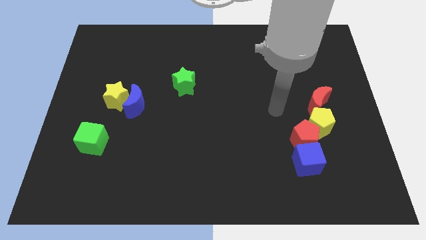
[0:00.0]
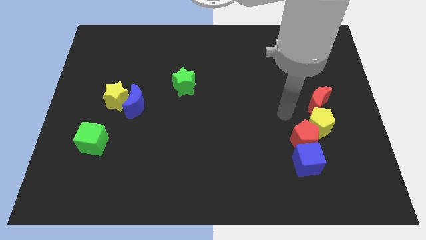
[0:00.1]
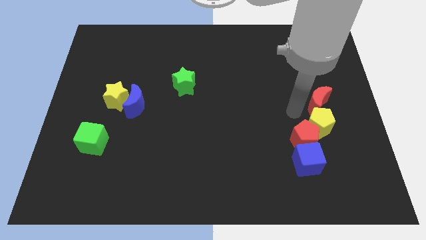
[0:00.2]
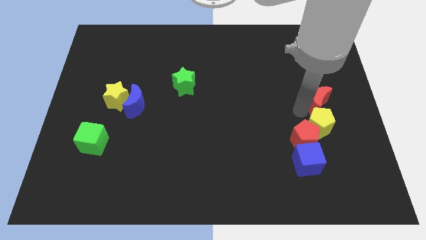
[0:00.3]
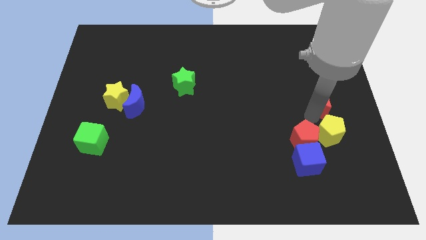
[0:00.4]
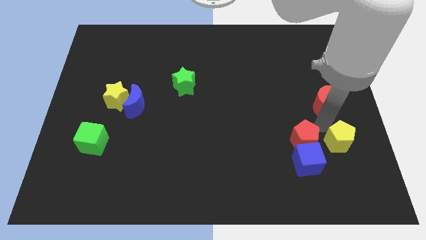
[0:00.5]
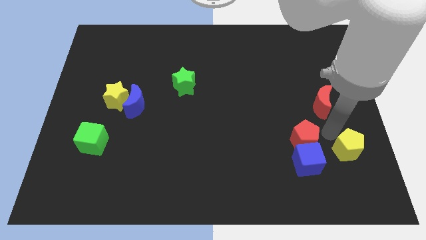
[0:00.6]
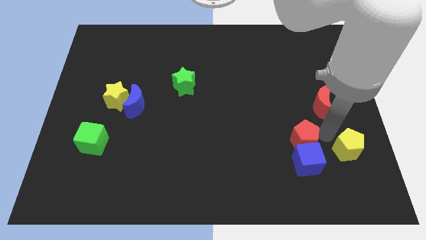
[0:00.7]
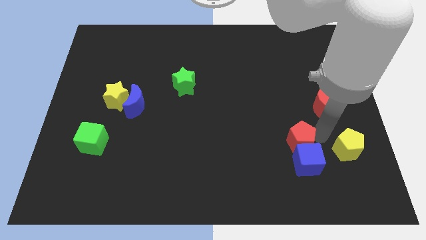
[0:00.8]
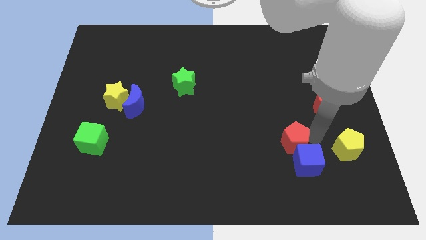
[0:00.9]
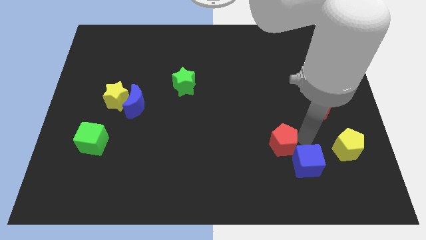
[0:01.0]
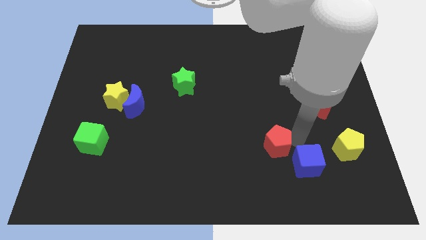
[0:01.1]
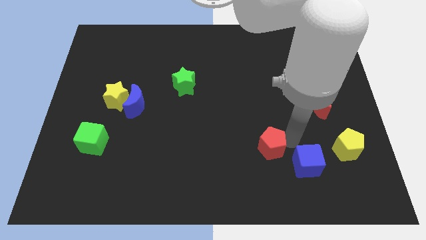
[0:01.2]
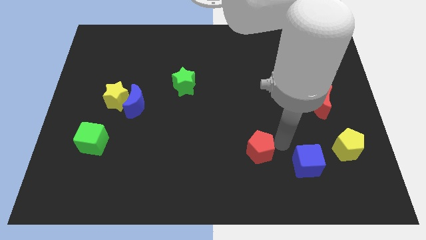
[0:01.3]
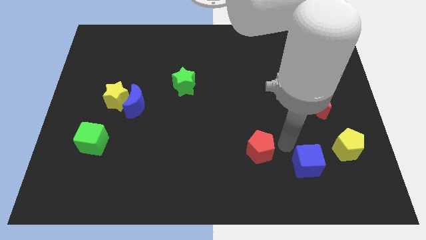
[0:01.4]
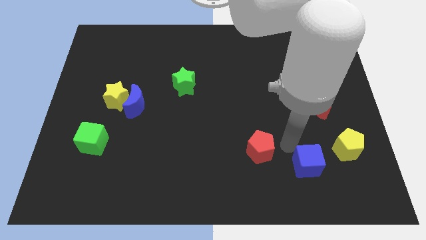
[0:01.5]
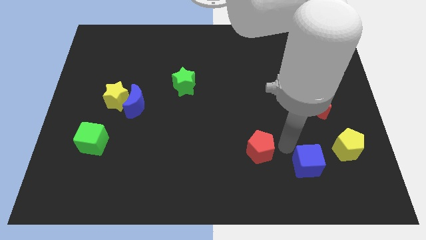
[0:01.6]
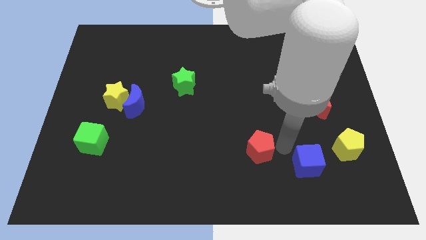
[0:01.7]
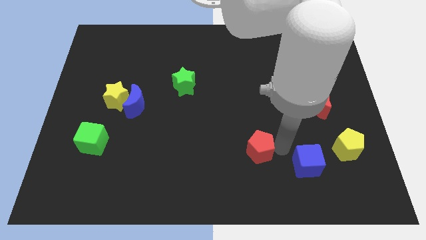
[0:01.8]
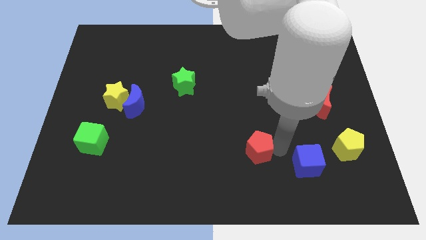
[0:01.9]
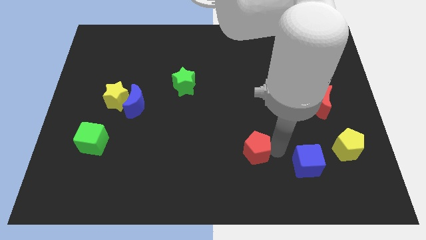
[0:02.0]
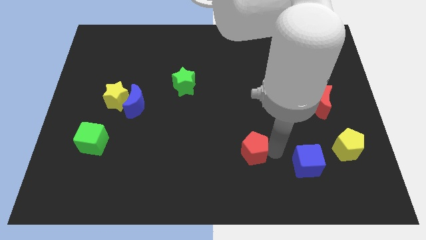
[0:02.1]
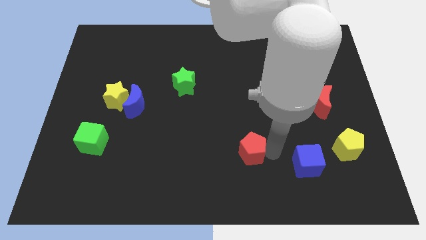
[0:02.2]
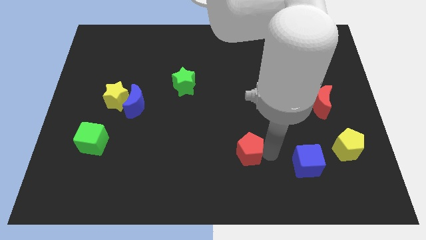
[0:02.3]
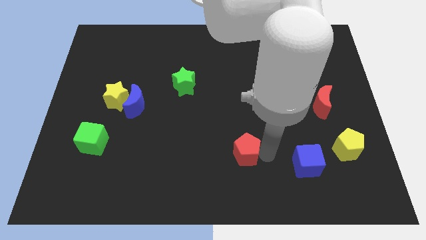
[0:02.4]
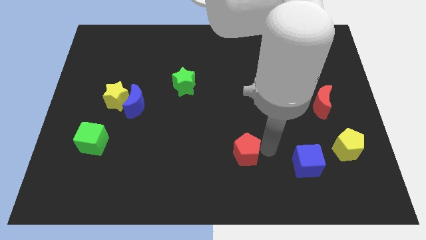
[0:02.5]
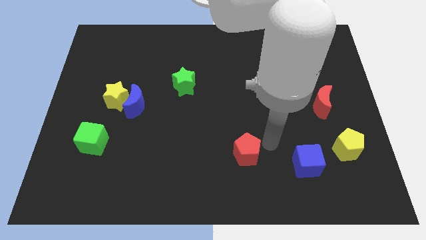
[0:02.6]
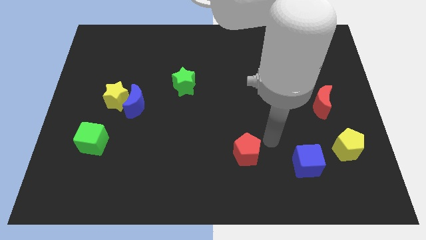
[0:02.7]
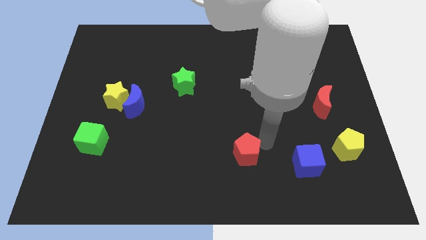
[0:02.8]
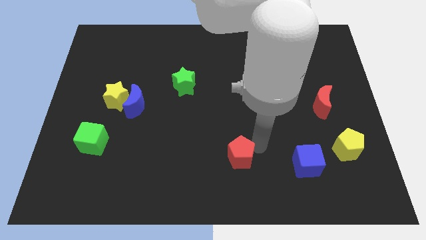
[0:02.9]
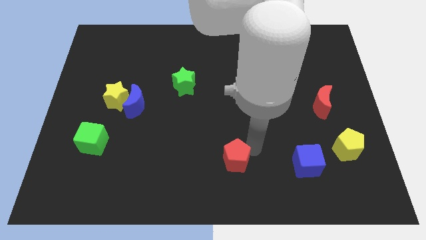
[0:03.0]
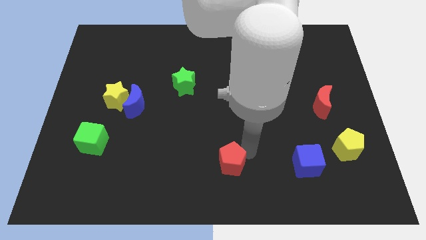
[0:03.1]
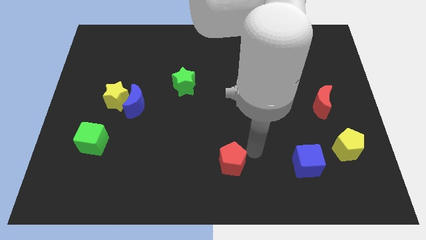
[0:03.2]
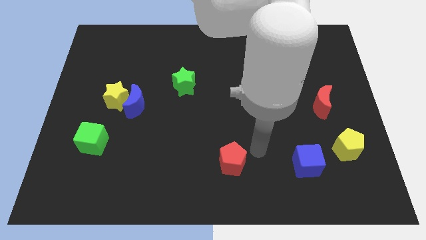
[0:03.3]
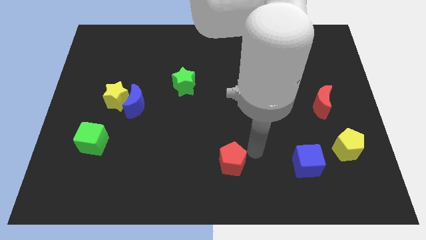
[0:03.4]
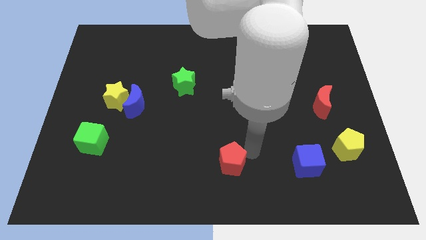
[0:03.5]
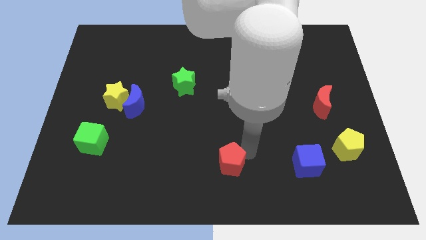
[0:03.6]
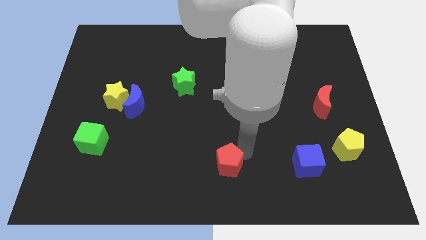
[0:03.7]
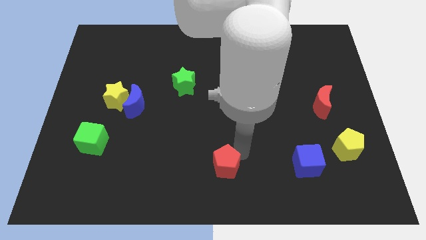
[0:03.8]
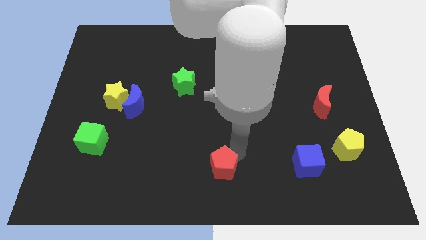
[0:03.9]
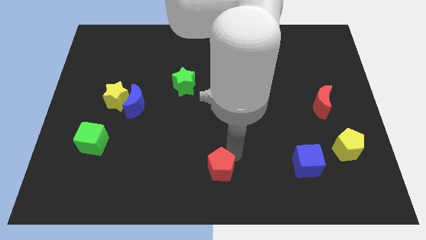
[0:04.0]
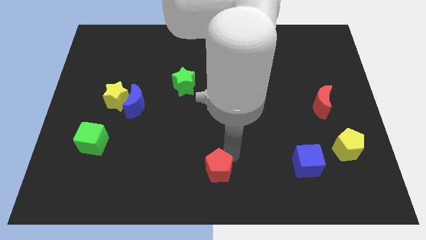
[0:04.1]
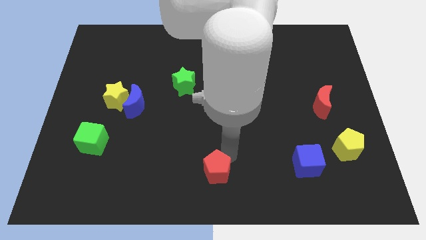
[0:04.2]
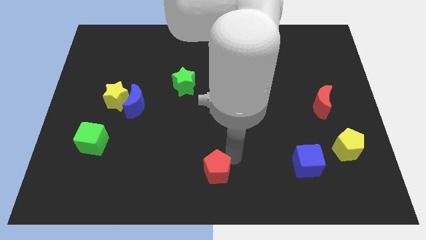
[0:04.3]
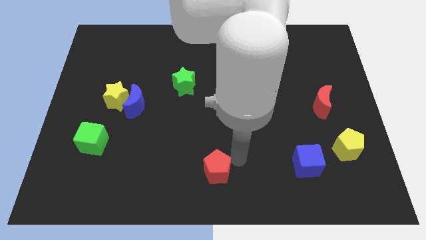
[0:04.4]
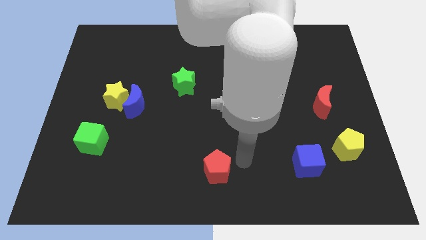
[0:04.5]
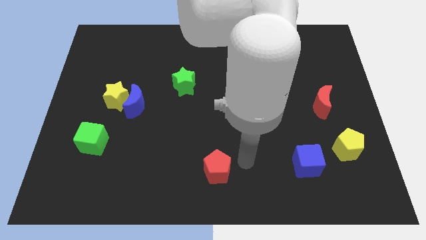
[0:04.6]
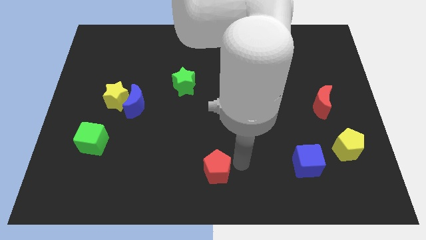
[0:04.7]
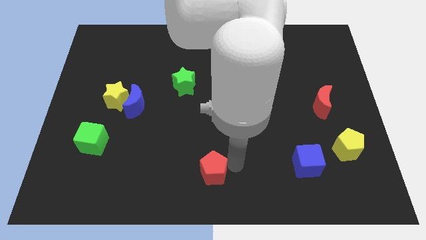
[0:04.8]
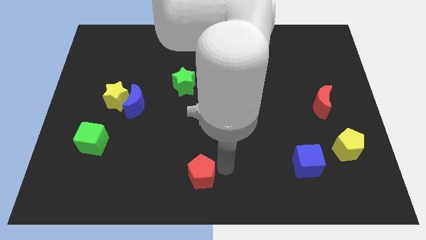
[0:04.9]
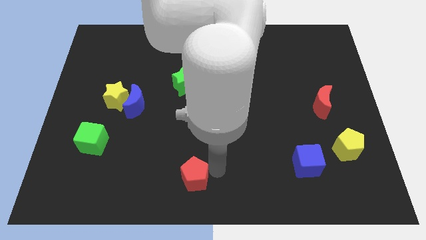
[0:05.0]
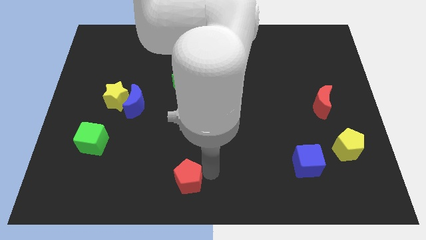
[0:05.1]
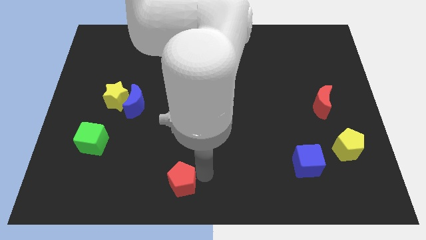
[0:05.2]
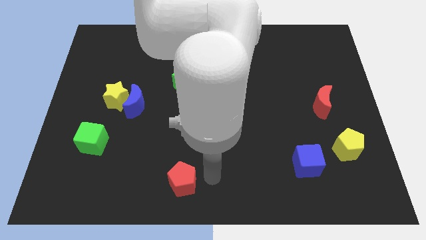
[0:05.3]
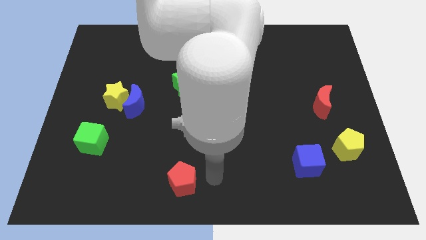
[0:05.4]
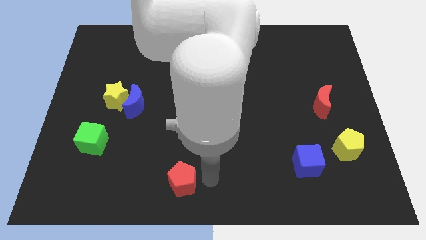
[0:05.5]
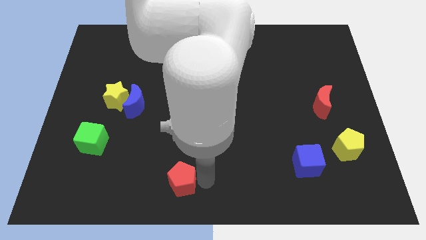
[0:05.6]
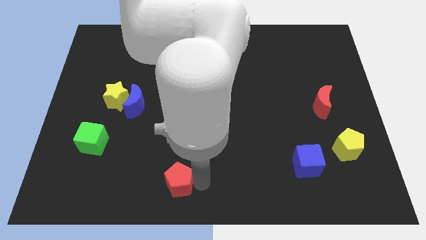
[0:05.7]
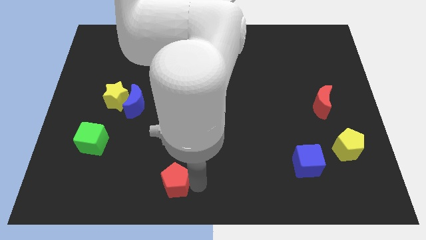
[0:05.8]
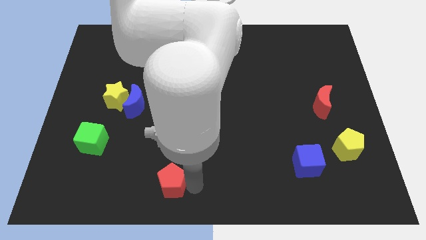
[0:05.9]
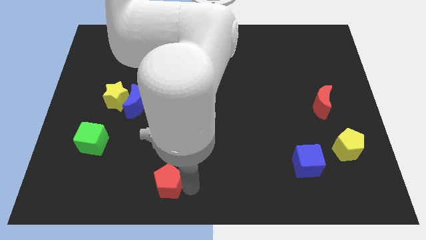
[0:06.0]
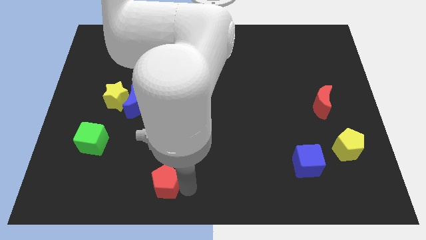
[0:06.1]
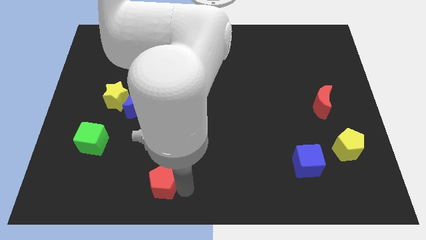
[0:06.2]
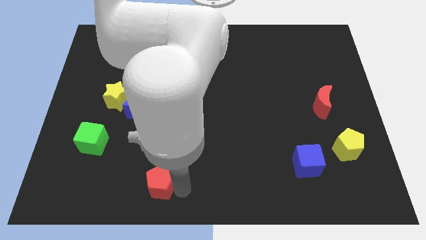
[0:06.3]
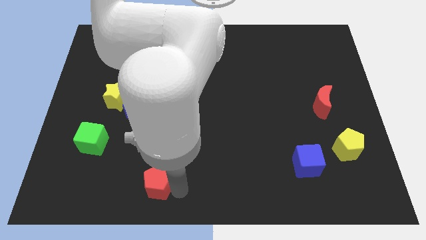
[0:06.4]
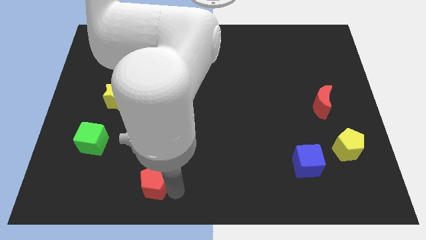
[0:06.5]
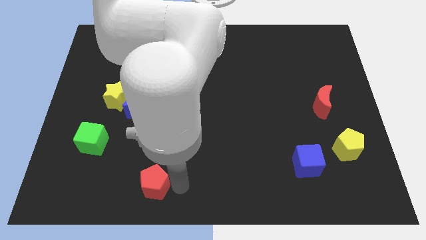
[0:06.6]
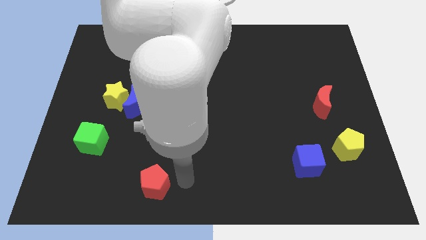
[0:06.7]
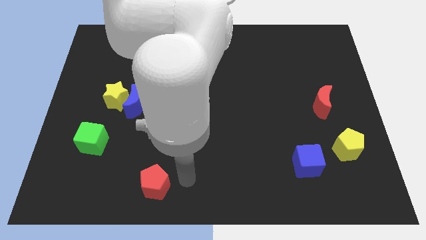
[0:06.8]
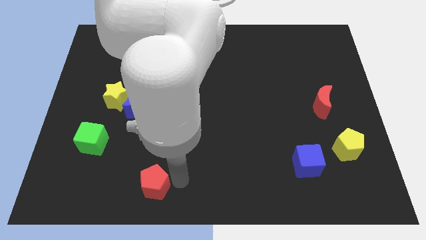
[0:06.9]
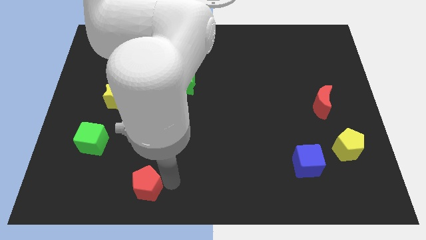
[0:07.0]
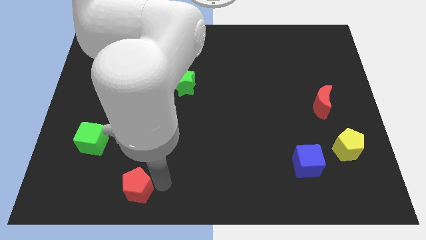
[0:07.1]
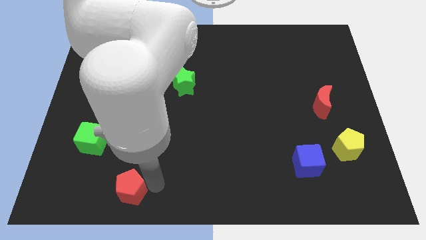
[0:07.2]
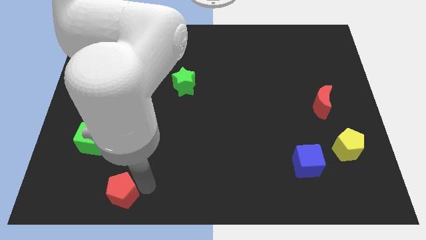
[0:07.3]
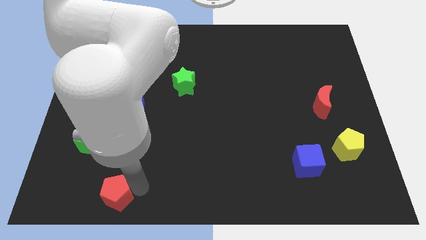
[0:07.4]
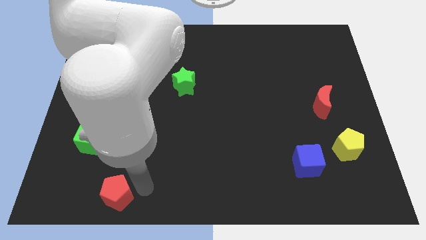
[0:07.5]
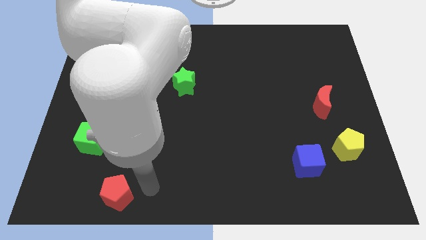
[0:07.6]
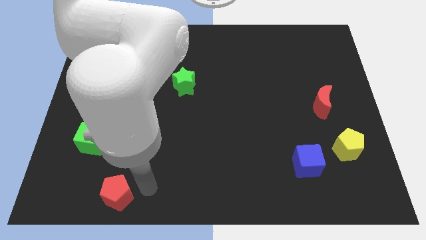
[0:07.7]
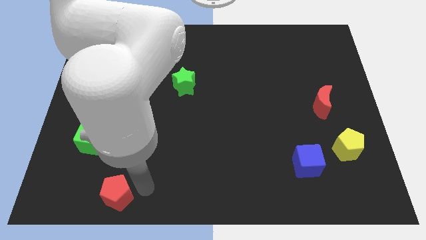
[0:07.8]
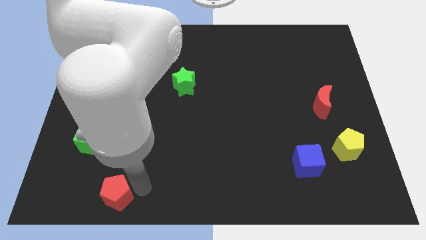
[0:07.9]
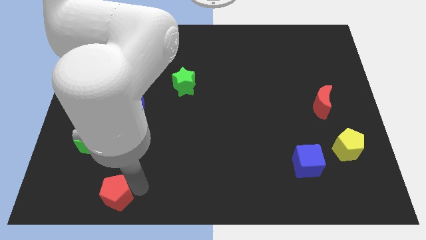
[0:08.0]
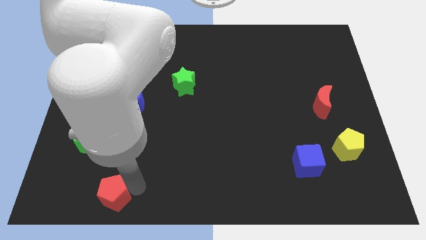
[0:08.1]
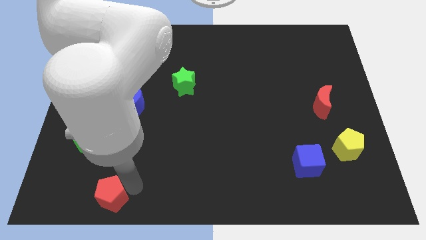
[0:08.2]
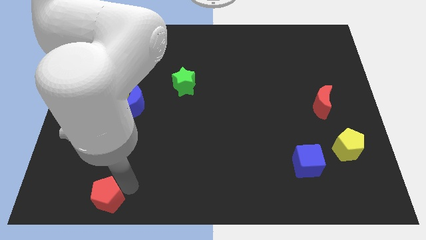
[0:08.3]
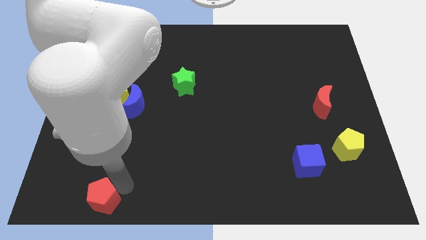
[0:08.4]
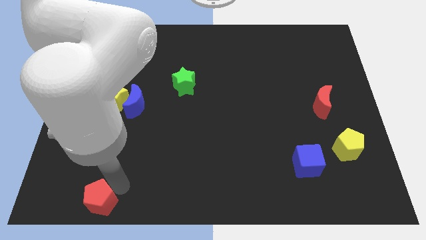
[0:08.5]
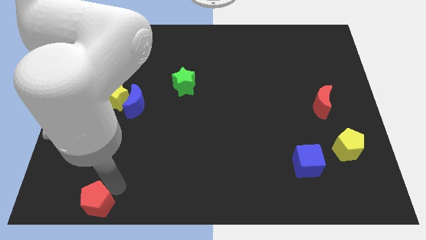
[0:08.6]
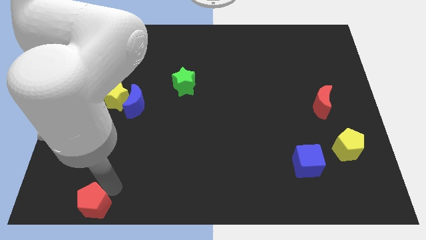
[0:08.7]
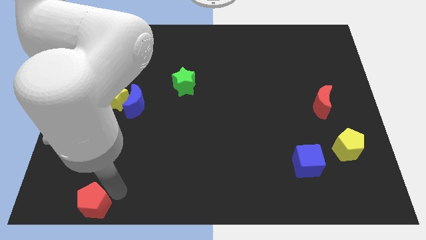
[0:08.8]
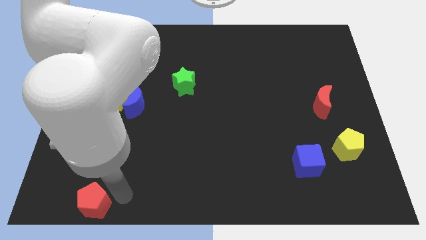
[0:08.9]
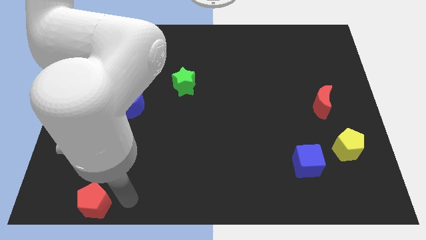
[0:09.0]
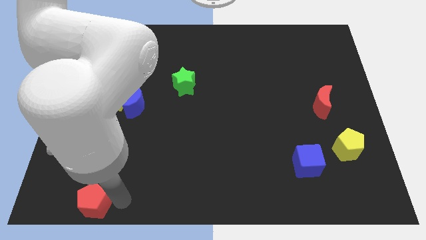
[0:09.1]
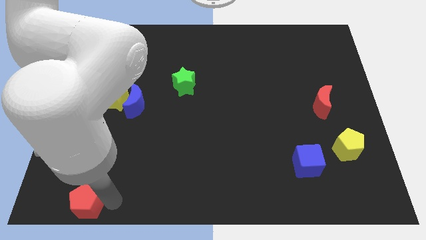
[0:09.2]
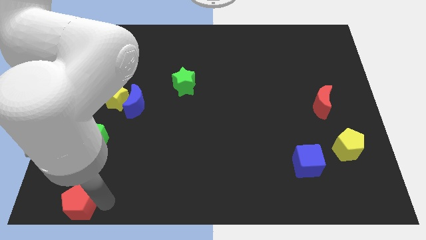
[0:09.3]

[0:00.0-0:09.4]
move the red pentagon to the bottom left of the board
